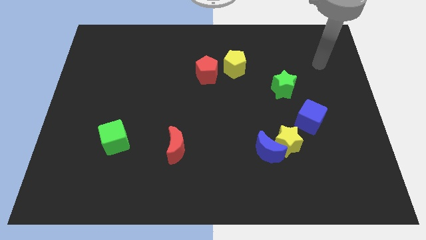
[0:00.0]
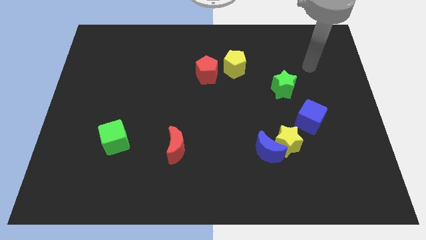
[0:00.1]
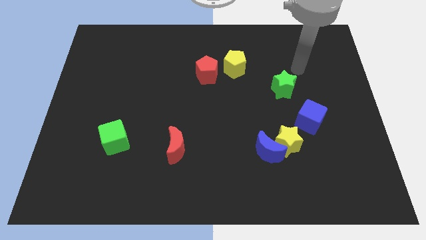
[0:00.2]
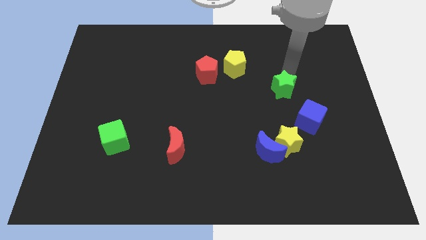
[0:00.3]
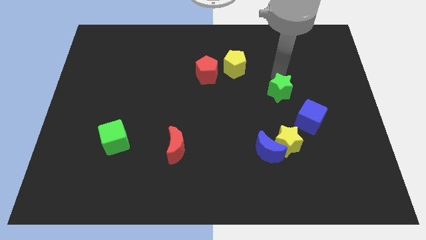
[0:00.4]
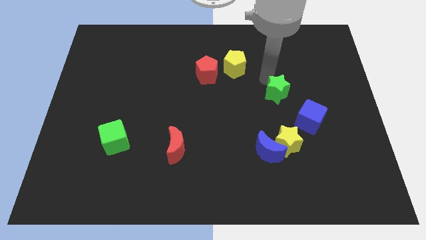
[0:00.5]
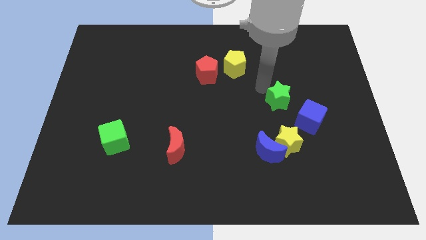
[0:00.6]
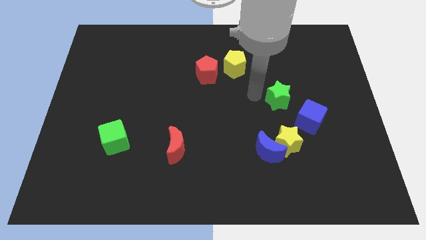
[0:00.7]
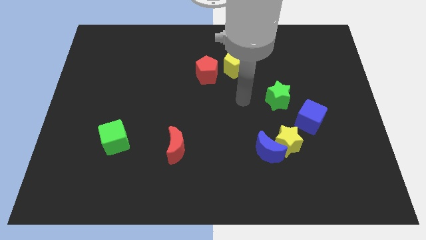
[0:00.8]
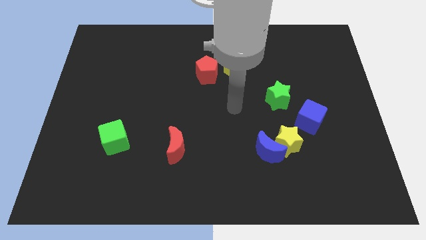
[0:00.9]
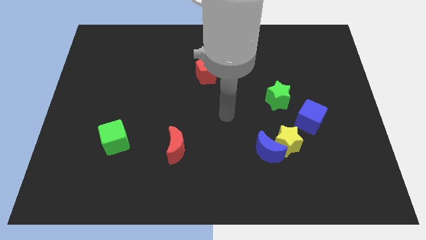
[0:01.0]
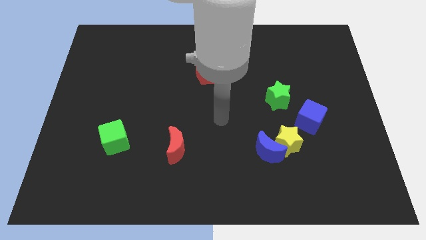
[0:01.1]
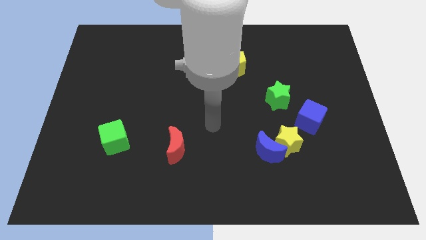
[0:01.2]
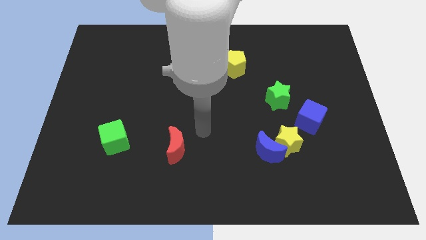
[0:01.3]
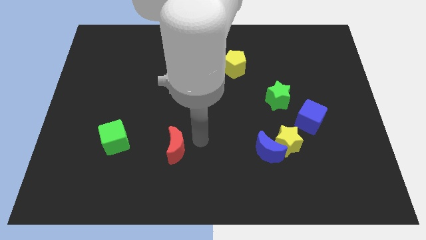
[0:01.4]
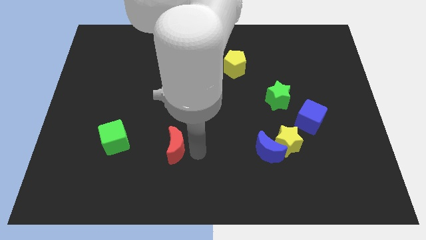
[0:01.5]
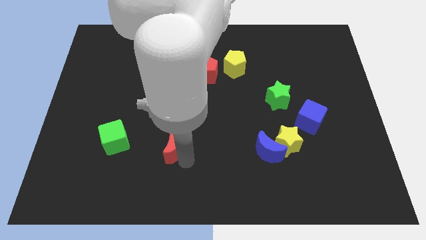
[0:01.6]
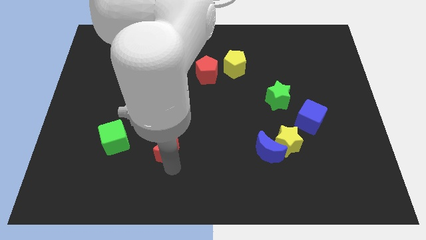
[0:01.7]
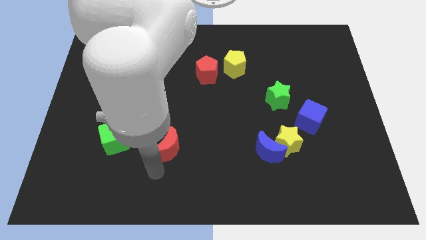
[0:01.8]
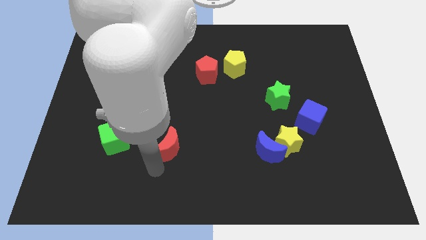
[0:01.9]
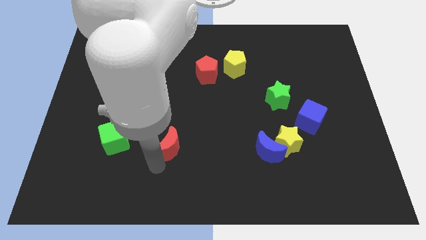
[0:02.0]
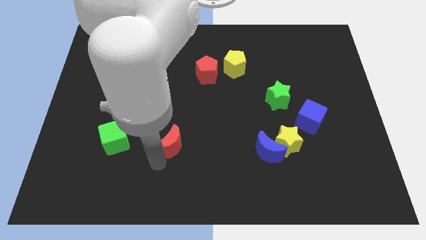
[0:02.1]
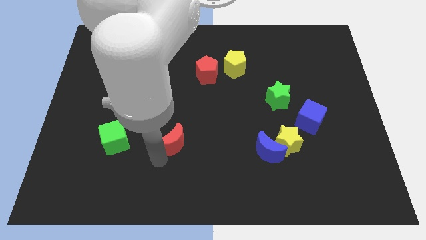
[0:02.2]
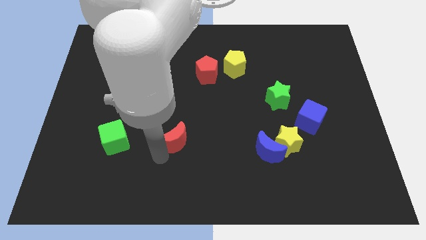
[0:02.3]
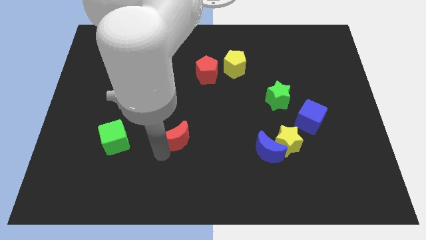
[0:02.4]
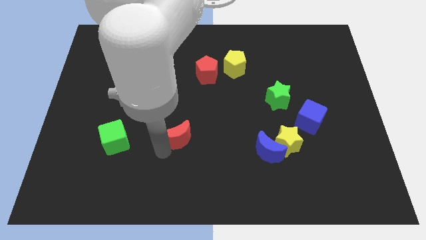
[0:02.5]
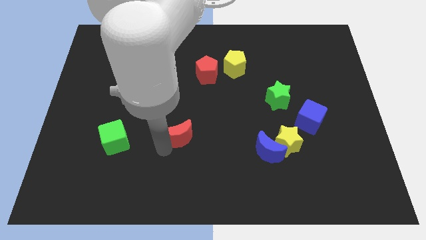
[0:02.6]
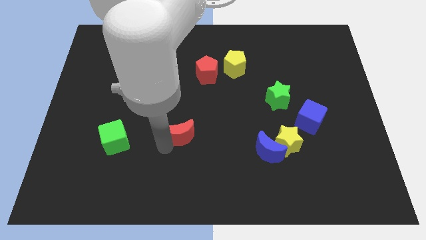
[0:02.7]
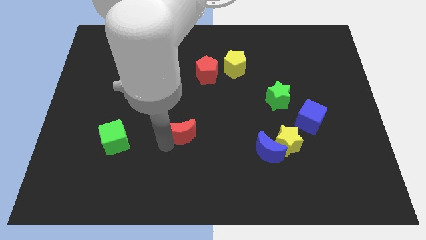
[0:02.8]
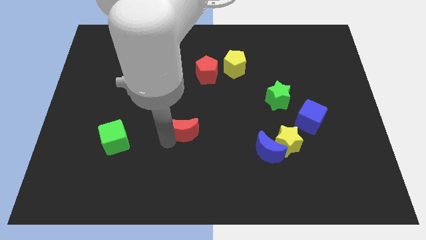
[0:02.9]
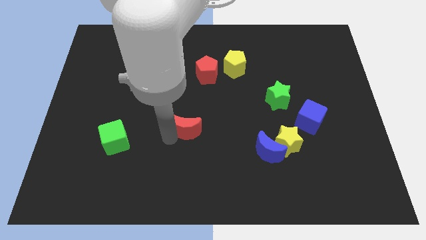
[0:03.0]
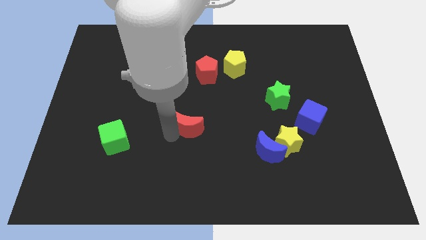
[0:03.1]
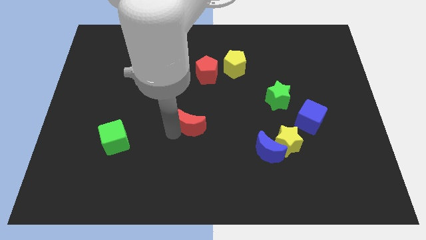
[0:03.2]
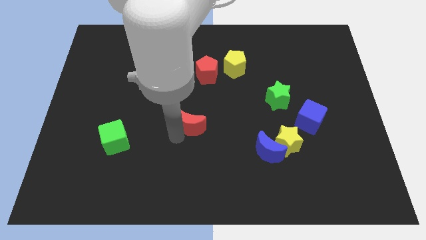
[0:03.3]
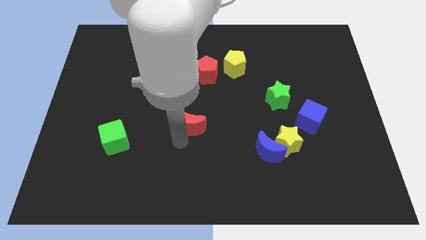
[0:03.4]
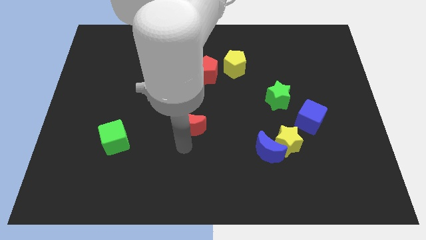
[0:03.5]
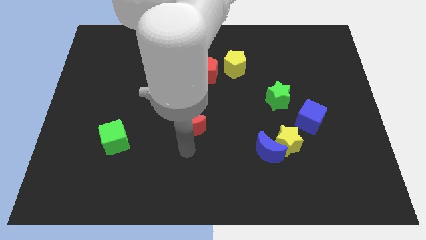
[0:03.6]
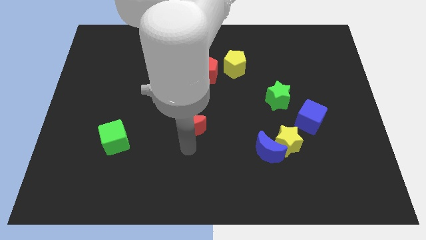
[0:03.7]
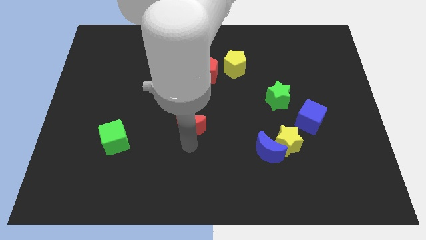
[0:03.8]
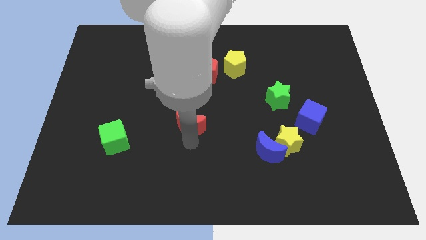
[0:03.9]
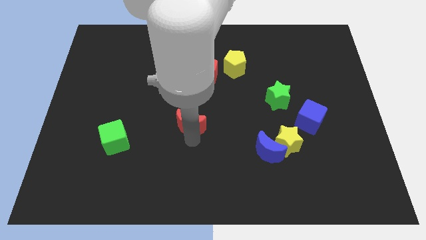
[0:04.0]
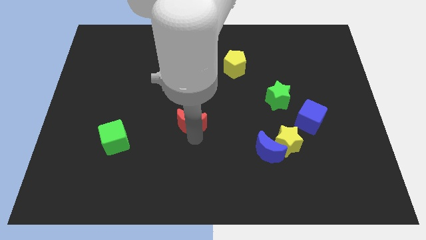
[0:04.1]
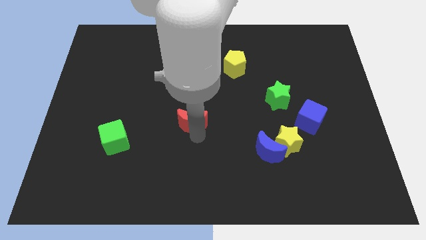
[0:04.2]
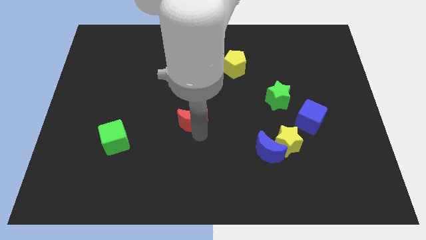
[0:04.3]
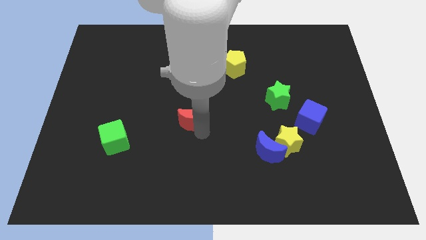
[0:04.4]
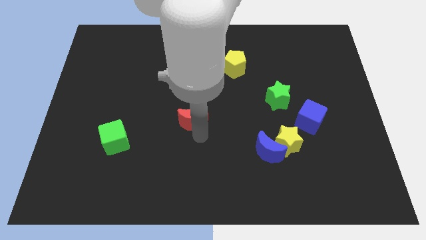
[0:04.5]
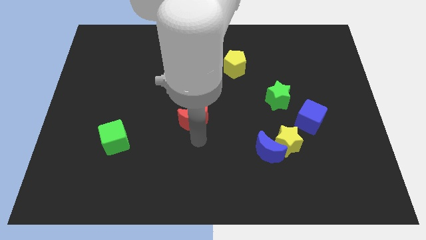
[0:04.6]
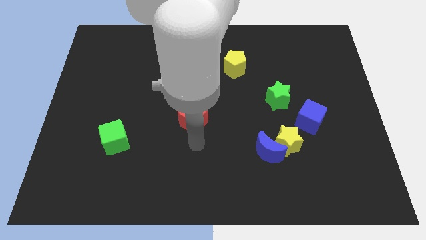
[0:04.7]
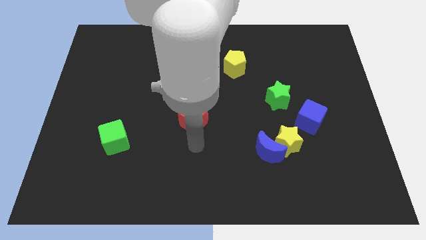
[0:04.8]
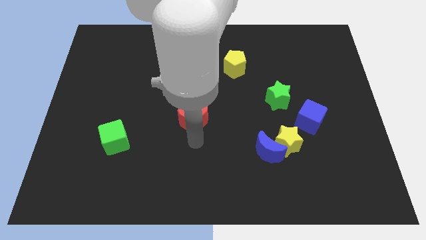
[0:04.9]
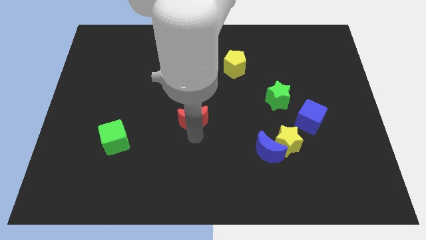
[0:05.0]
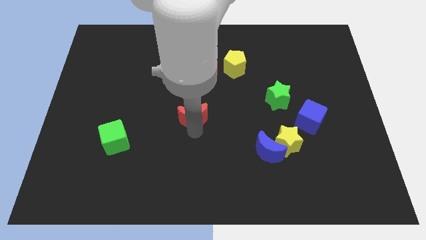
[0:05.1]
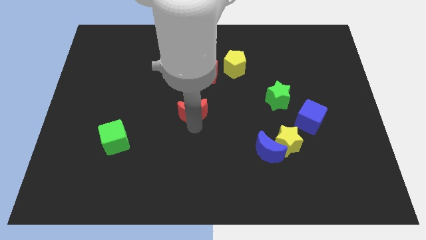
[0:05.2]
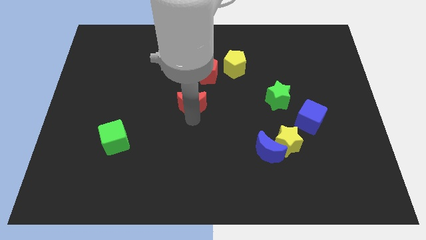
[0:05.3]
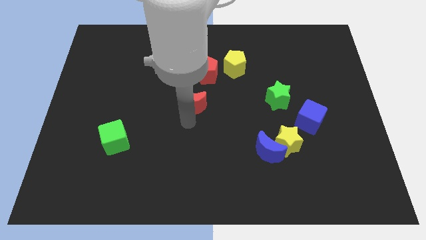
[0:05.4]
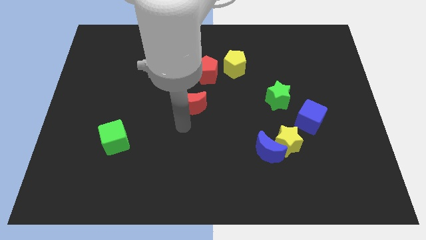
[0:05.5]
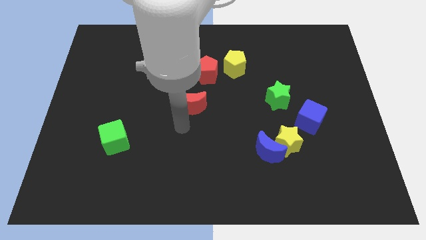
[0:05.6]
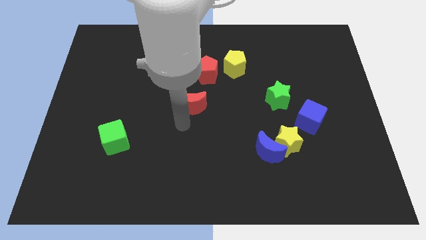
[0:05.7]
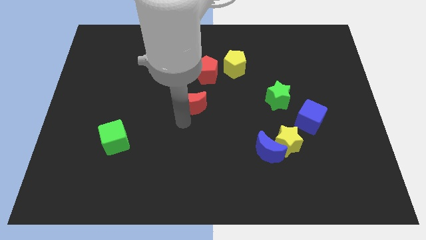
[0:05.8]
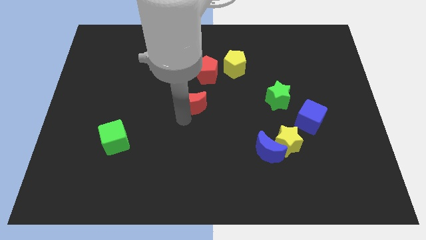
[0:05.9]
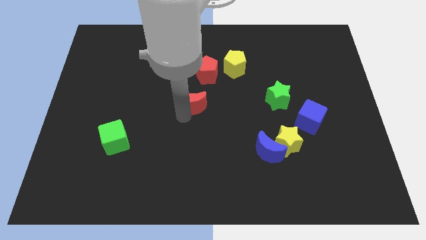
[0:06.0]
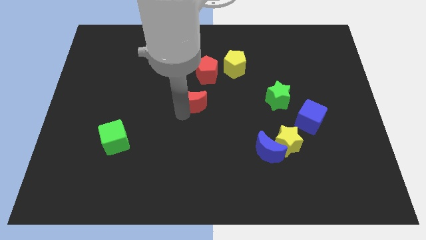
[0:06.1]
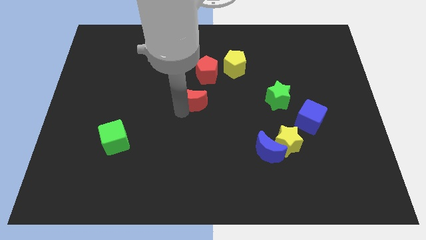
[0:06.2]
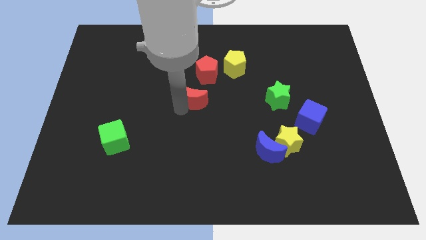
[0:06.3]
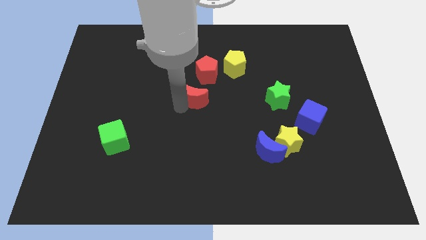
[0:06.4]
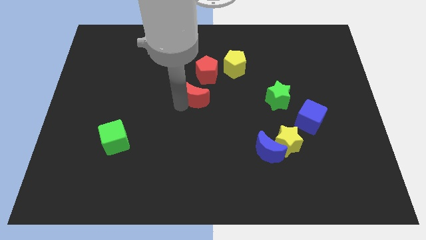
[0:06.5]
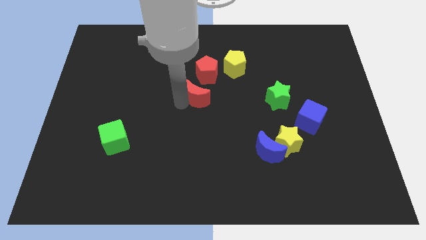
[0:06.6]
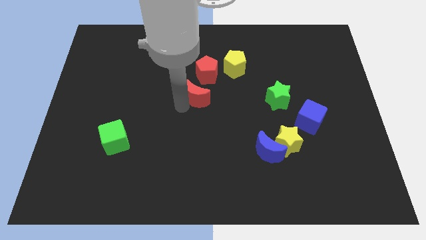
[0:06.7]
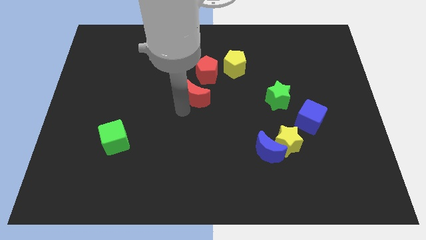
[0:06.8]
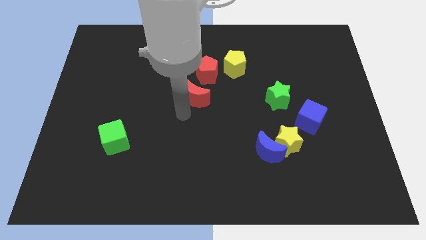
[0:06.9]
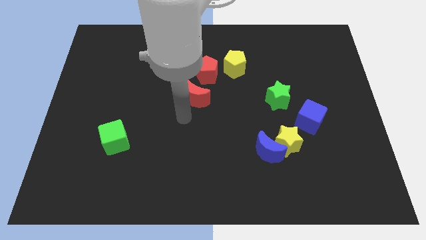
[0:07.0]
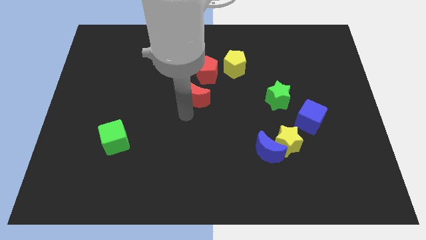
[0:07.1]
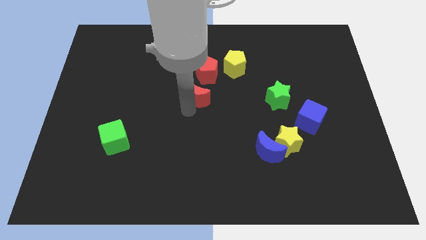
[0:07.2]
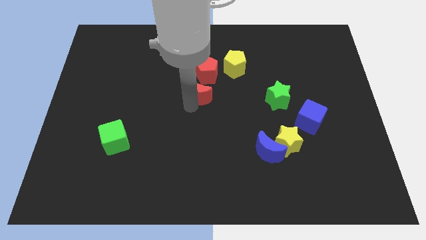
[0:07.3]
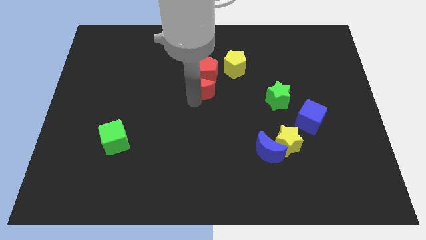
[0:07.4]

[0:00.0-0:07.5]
slide the red moon next to the red pentagon
